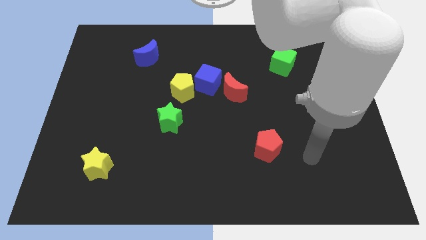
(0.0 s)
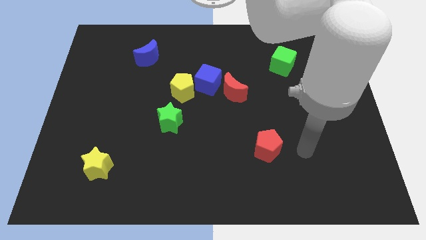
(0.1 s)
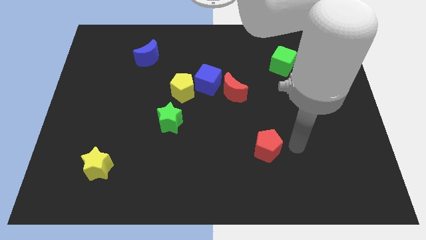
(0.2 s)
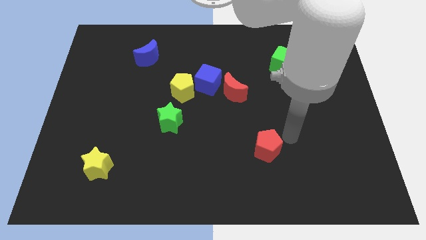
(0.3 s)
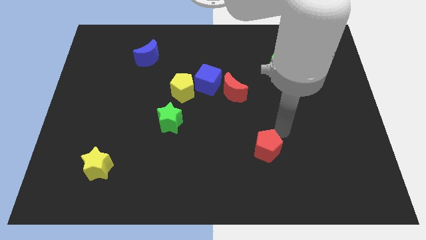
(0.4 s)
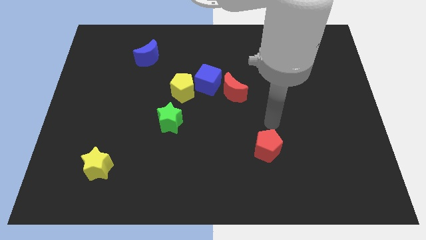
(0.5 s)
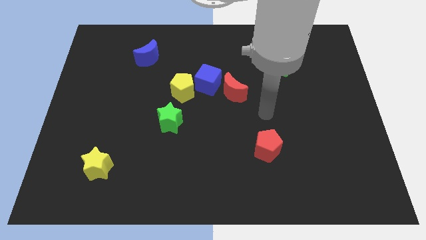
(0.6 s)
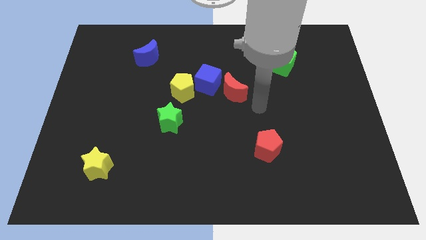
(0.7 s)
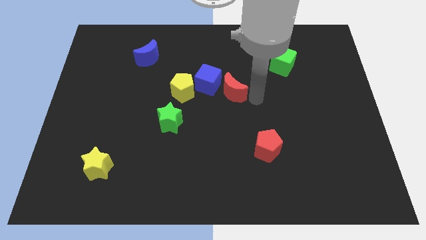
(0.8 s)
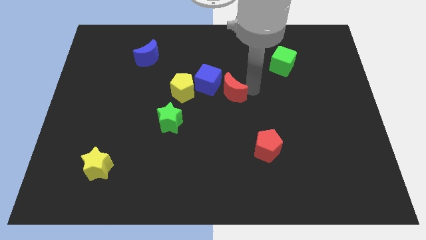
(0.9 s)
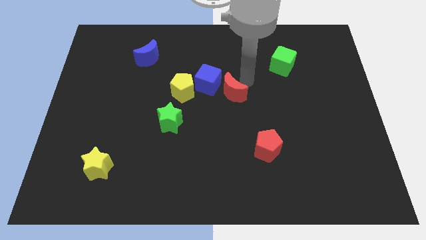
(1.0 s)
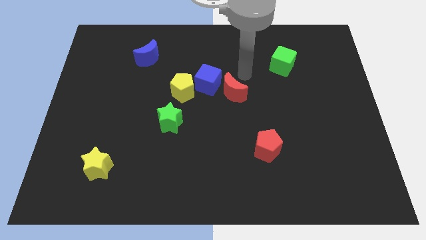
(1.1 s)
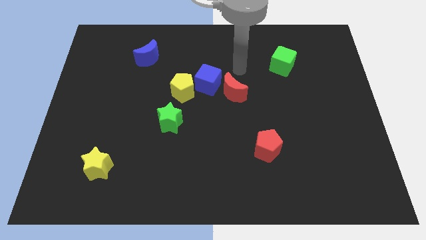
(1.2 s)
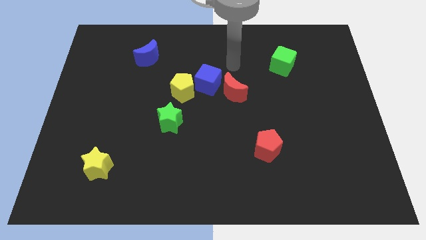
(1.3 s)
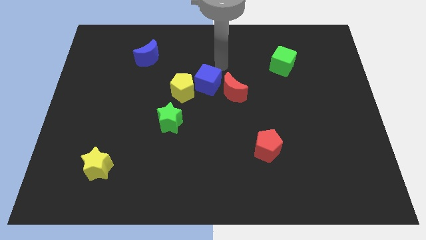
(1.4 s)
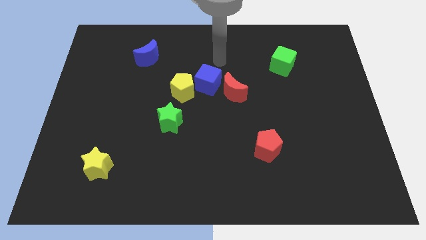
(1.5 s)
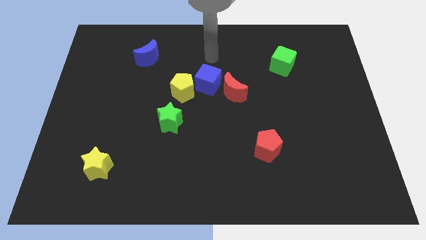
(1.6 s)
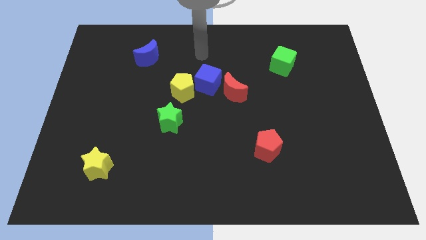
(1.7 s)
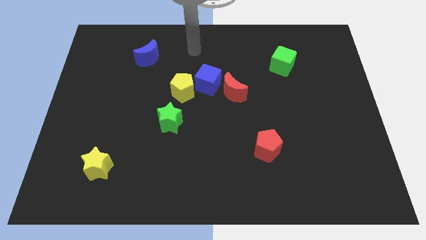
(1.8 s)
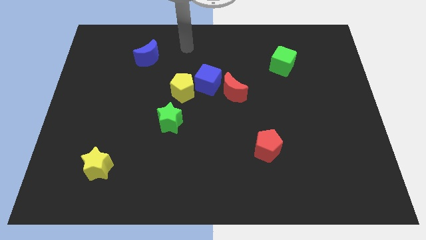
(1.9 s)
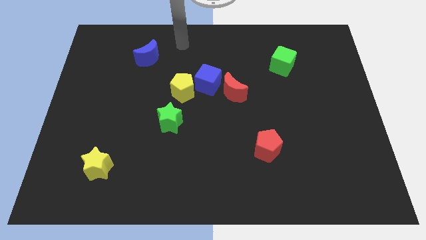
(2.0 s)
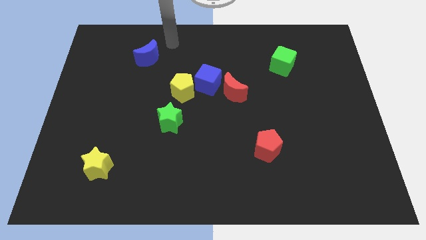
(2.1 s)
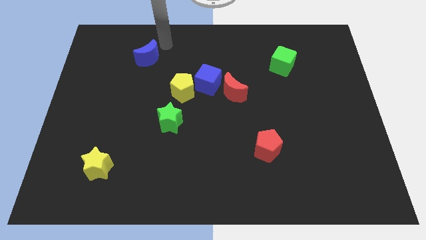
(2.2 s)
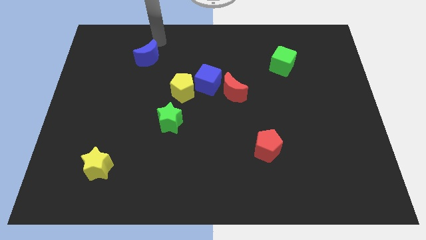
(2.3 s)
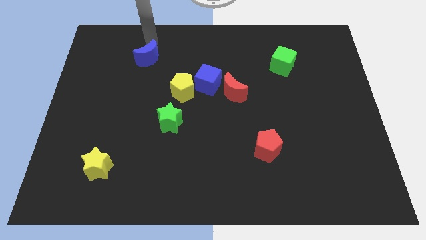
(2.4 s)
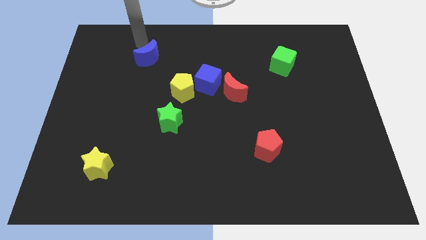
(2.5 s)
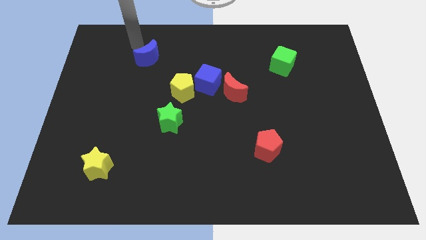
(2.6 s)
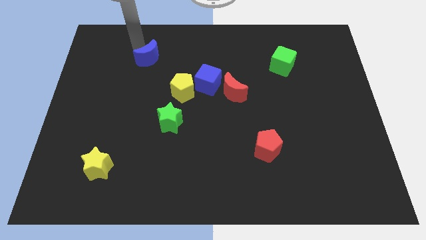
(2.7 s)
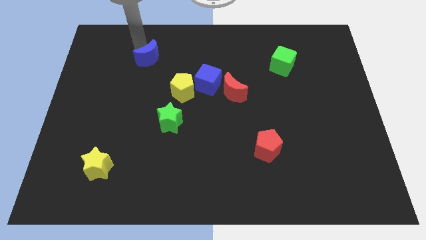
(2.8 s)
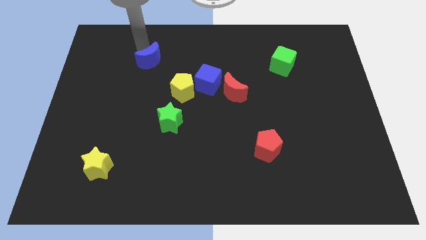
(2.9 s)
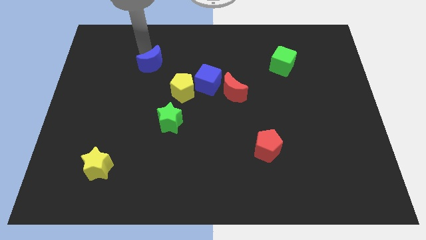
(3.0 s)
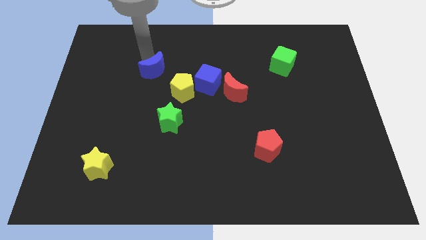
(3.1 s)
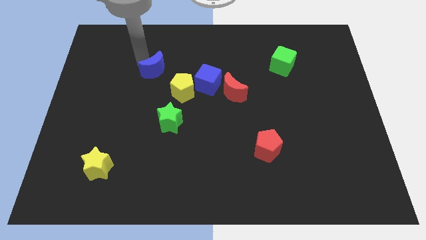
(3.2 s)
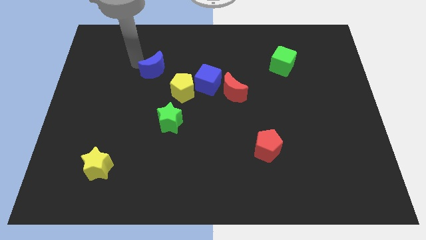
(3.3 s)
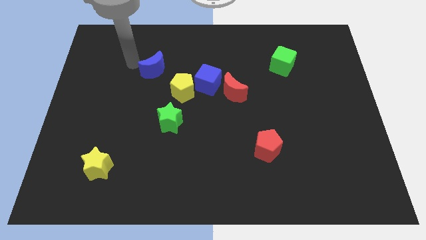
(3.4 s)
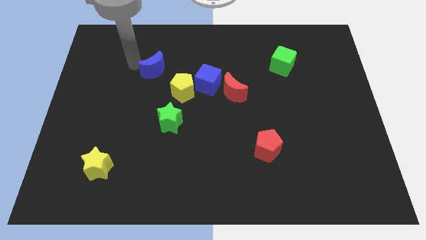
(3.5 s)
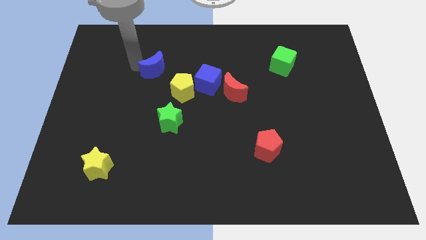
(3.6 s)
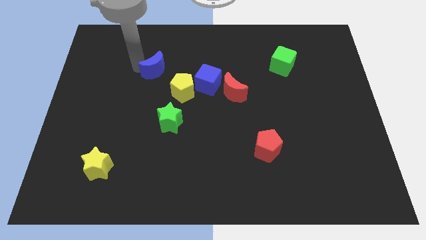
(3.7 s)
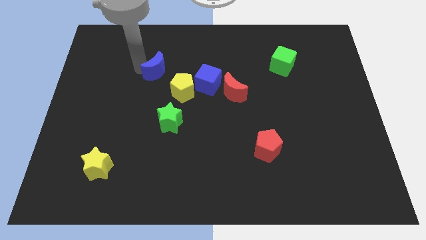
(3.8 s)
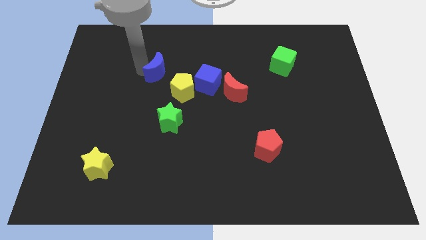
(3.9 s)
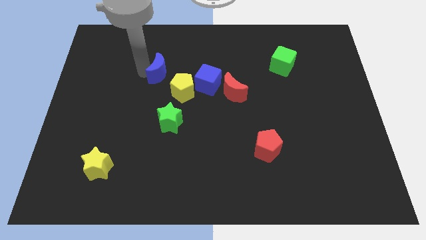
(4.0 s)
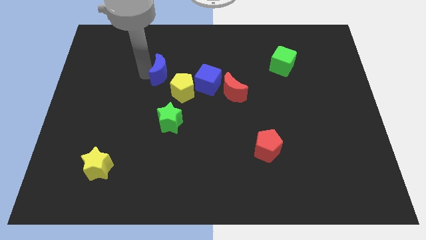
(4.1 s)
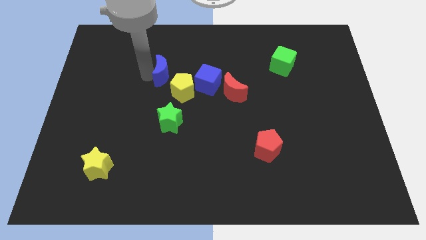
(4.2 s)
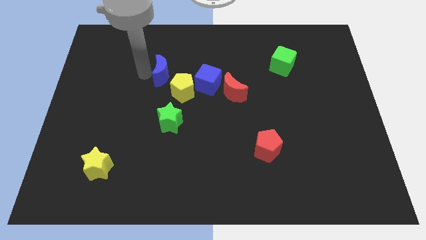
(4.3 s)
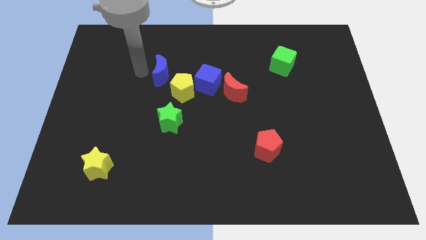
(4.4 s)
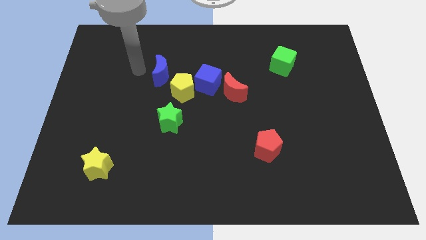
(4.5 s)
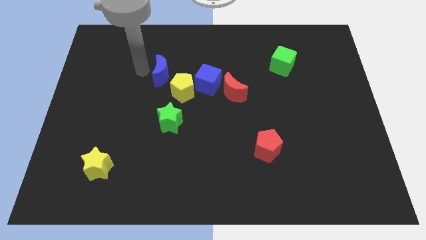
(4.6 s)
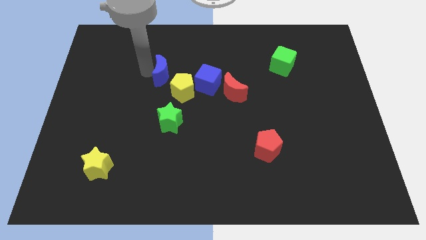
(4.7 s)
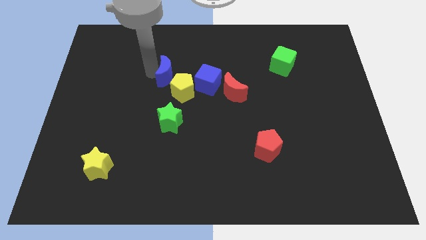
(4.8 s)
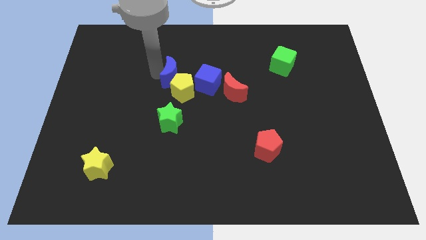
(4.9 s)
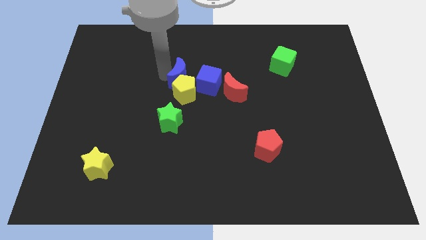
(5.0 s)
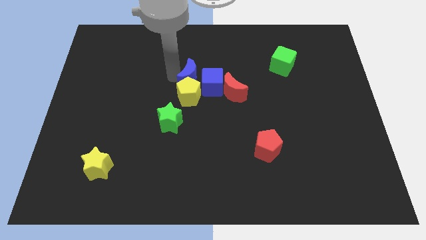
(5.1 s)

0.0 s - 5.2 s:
put the blue moon towards the blue cube

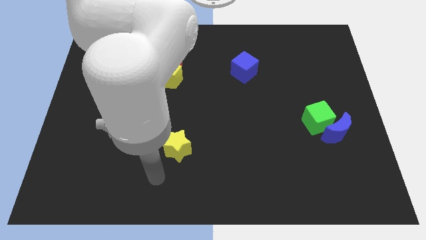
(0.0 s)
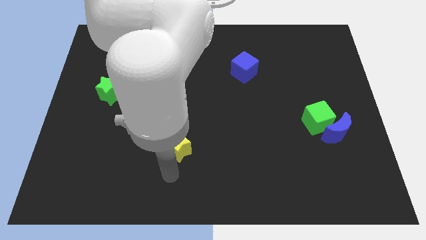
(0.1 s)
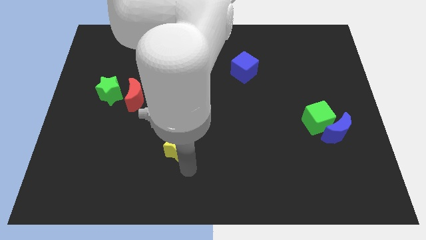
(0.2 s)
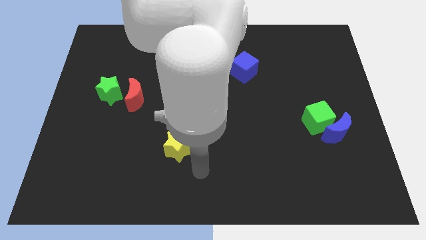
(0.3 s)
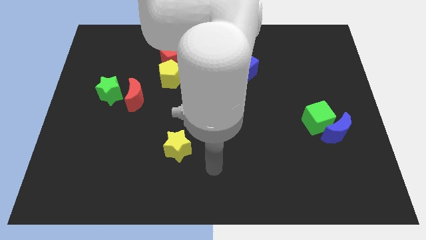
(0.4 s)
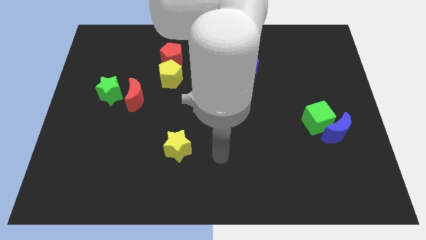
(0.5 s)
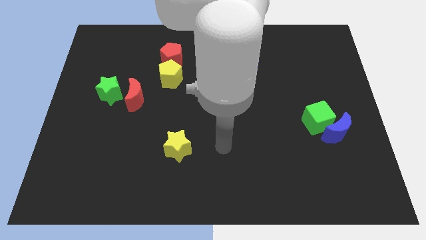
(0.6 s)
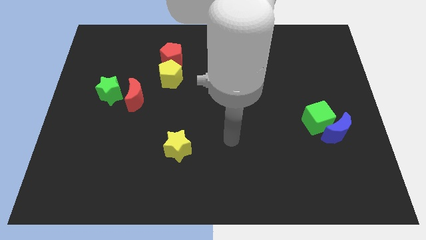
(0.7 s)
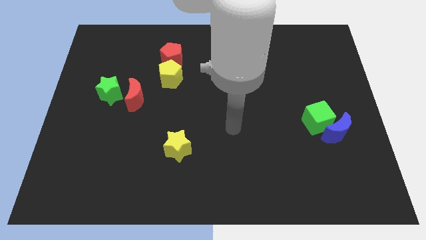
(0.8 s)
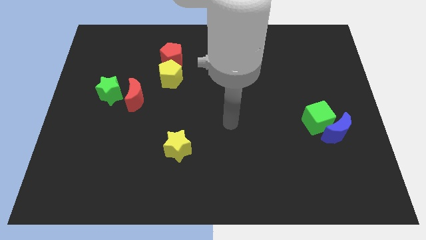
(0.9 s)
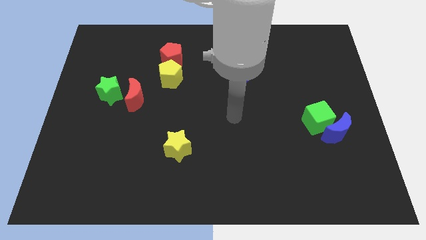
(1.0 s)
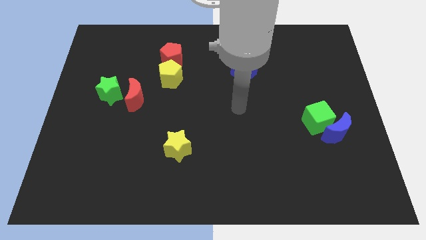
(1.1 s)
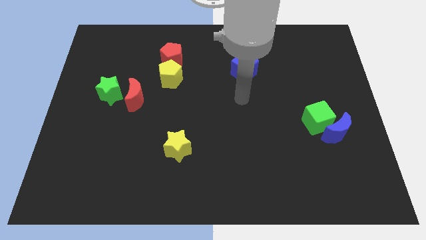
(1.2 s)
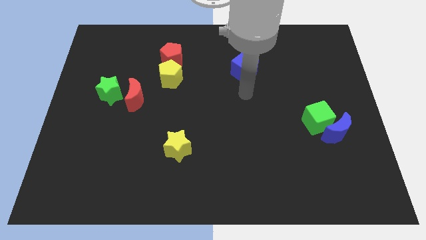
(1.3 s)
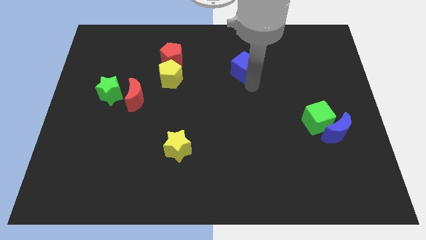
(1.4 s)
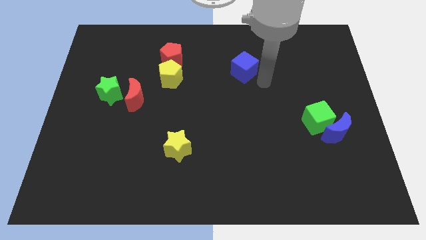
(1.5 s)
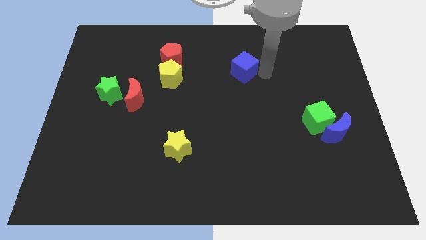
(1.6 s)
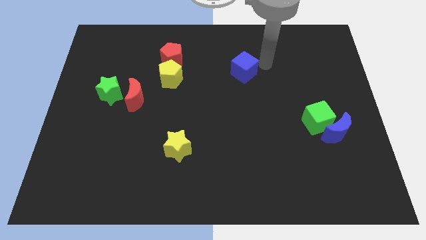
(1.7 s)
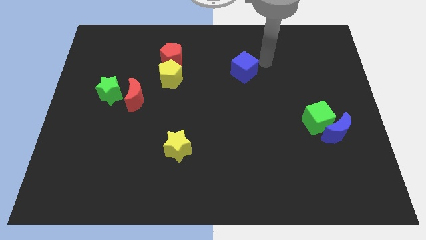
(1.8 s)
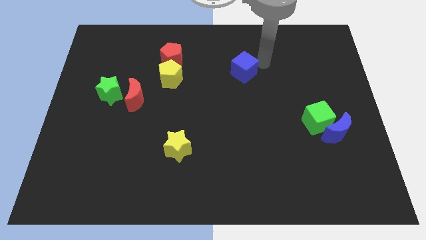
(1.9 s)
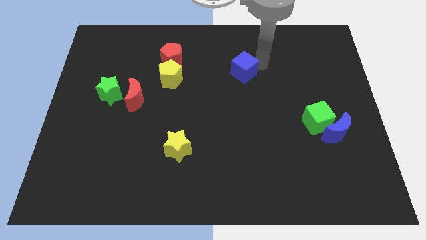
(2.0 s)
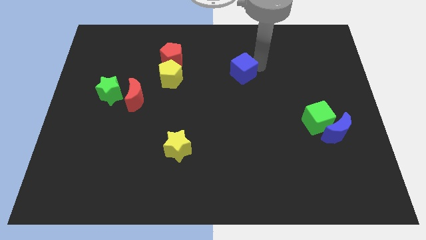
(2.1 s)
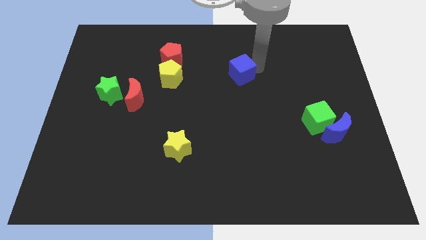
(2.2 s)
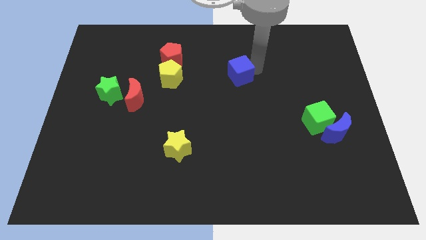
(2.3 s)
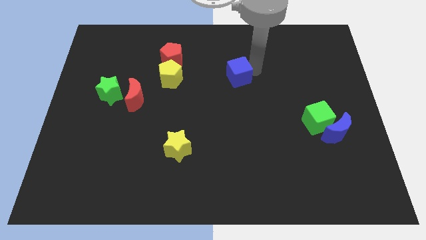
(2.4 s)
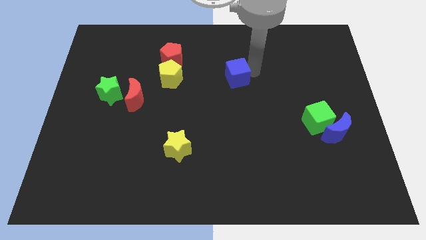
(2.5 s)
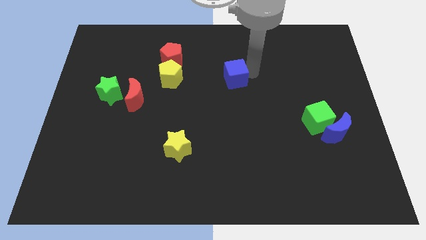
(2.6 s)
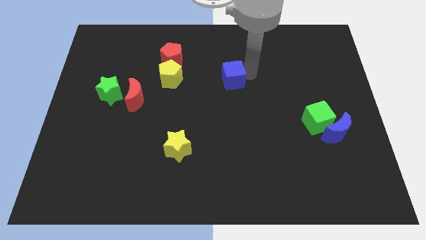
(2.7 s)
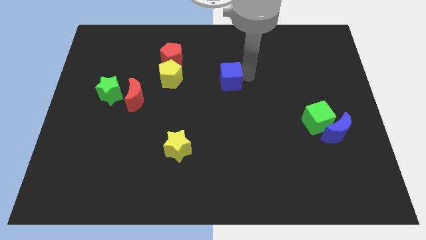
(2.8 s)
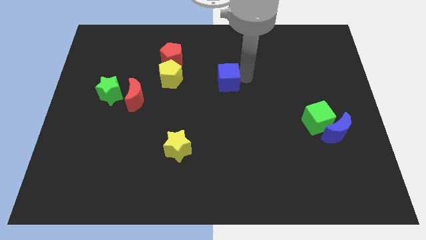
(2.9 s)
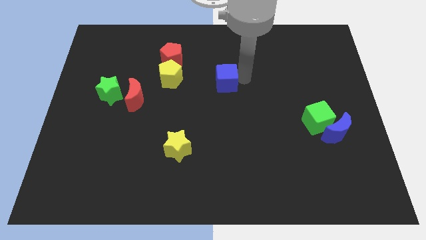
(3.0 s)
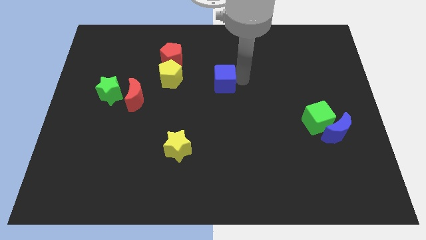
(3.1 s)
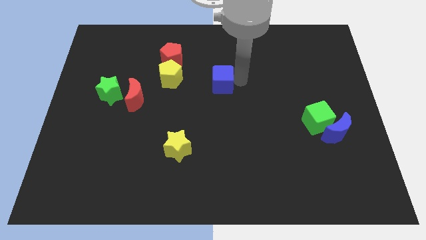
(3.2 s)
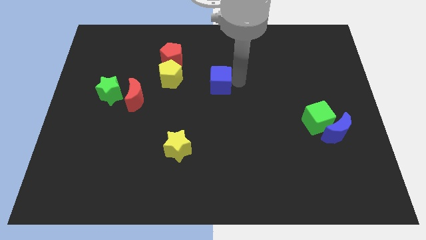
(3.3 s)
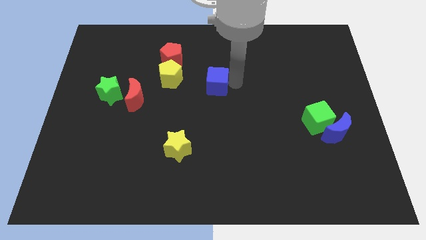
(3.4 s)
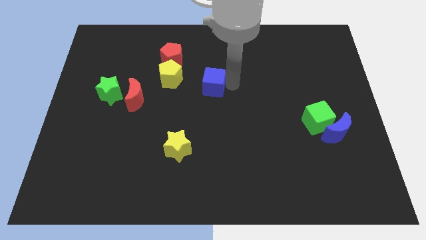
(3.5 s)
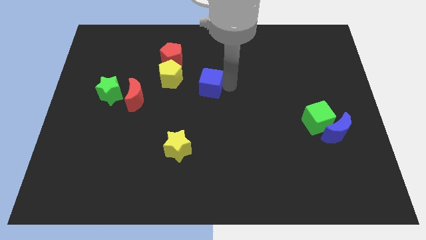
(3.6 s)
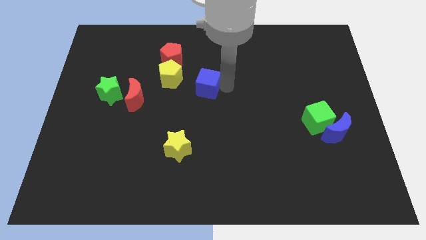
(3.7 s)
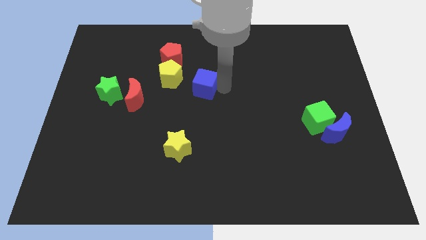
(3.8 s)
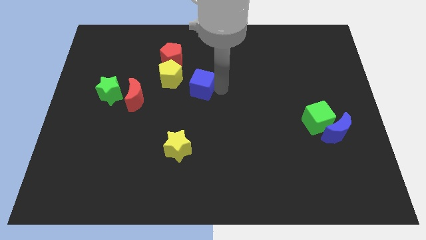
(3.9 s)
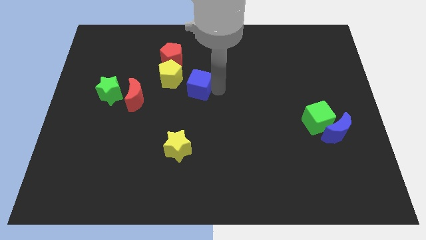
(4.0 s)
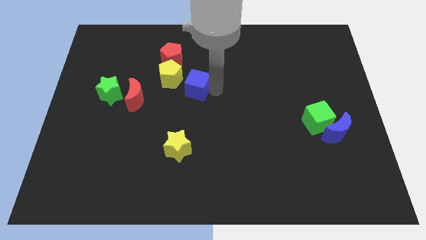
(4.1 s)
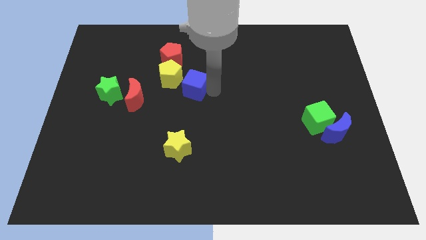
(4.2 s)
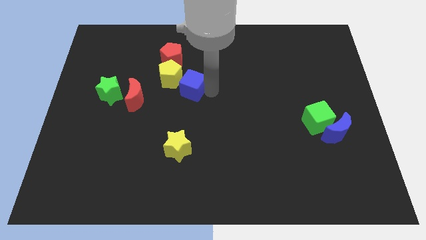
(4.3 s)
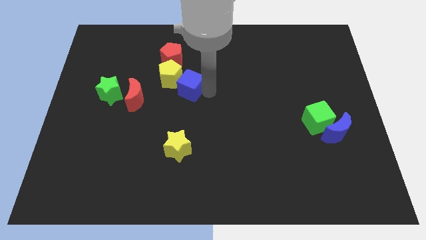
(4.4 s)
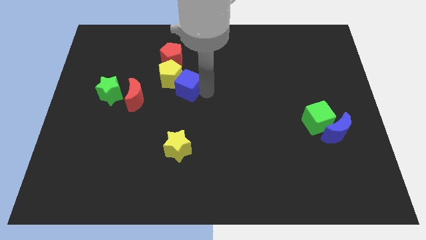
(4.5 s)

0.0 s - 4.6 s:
push the blue cube close to the yellow pentagon
